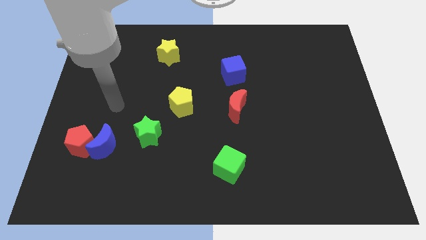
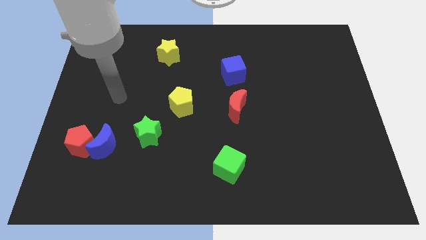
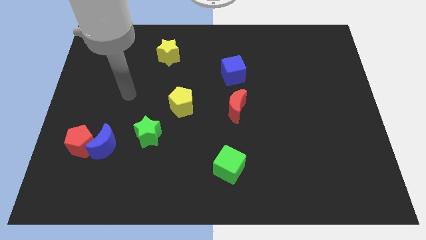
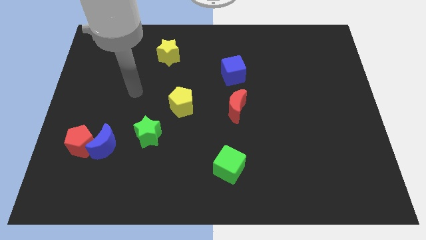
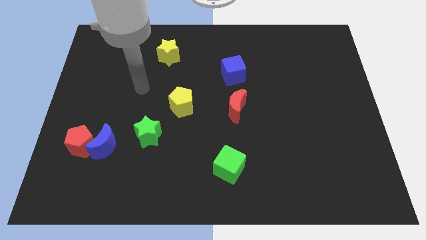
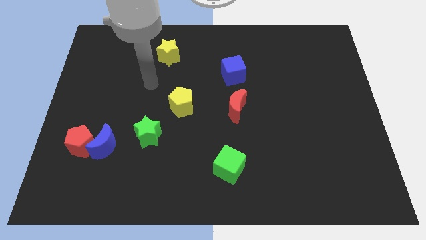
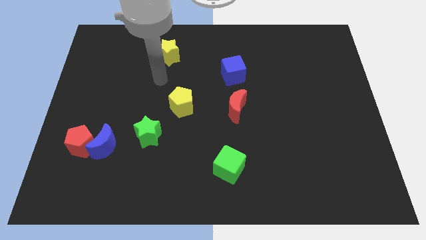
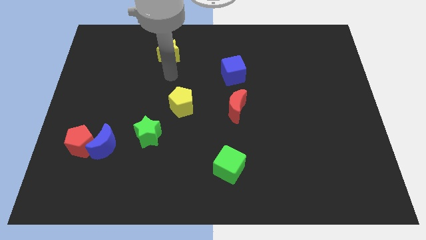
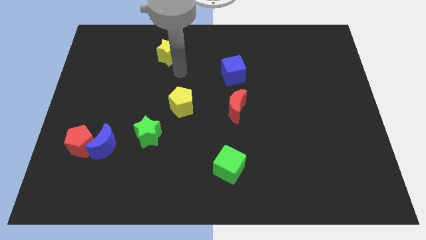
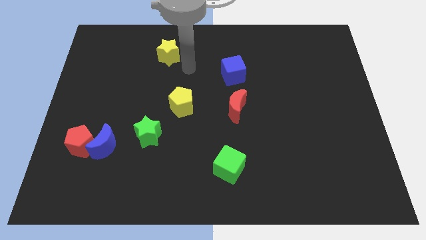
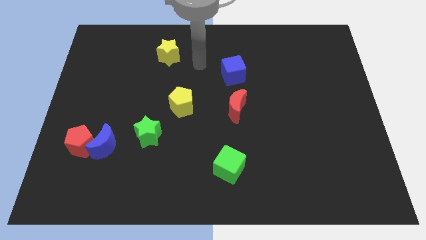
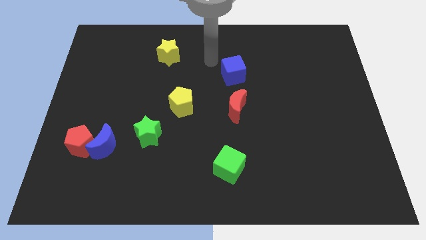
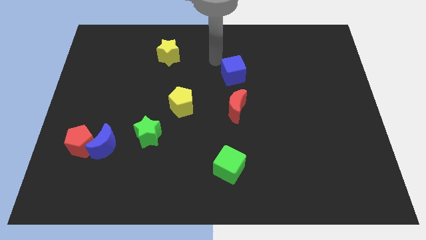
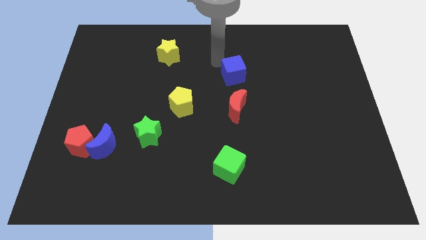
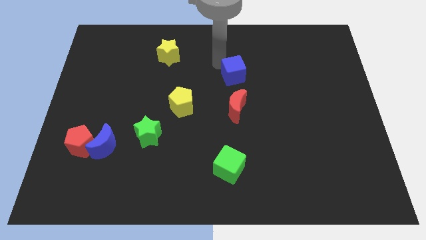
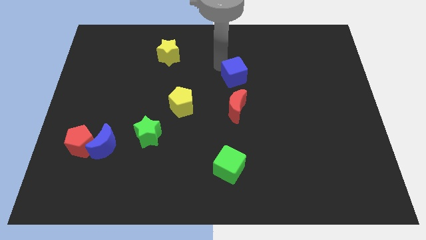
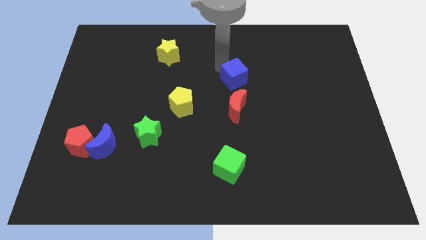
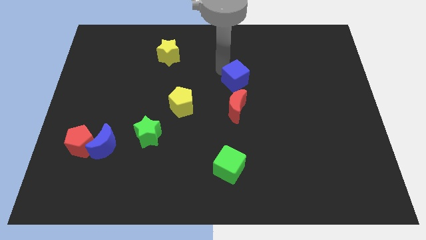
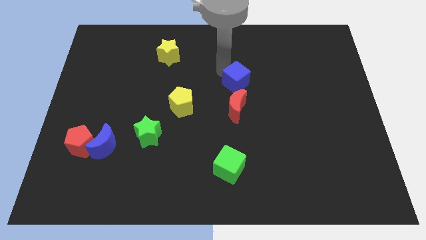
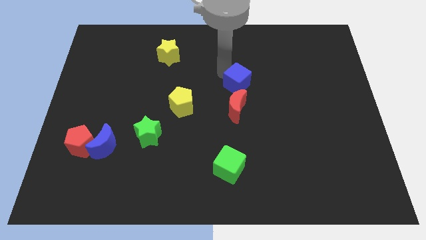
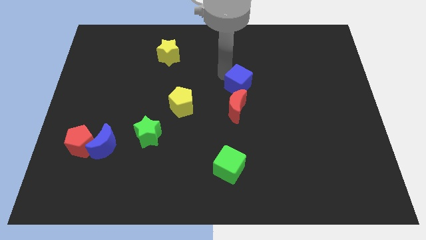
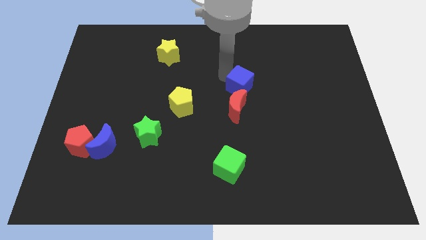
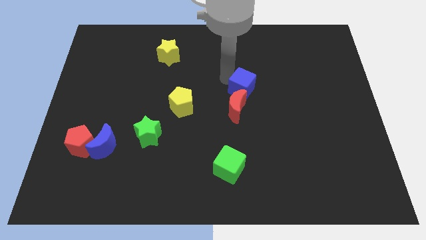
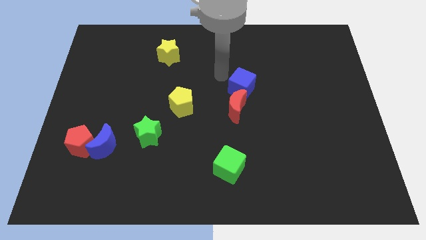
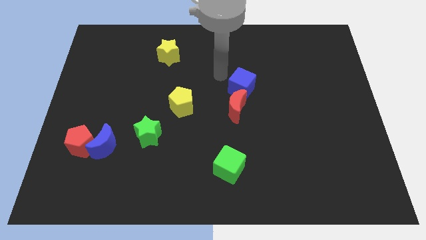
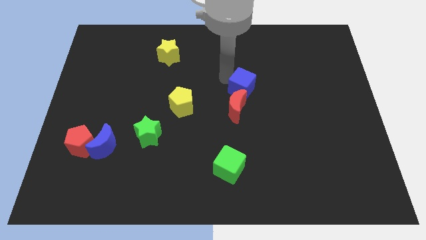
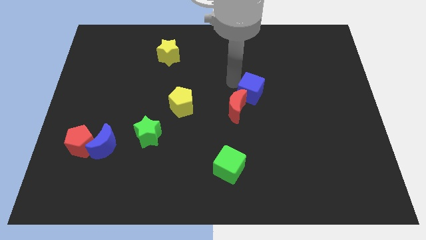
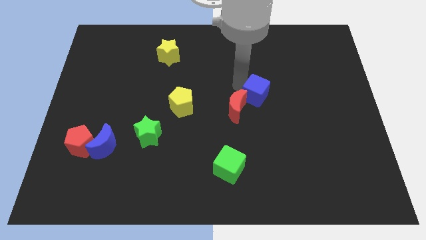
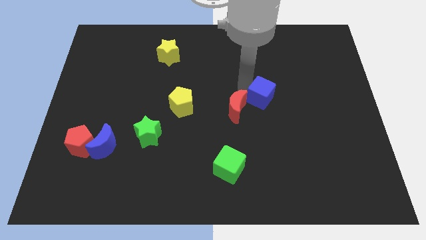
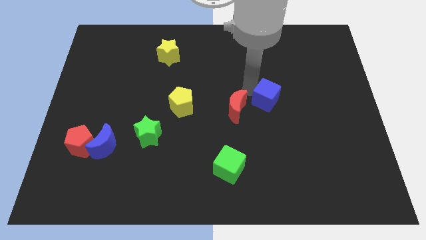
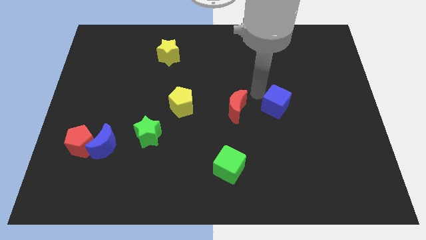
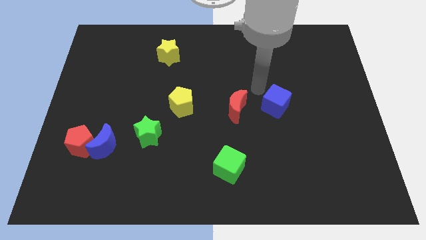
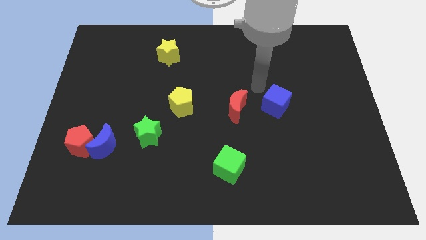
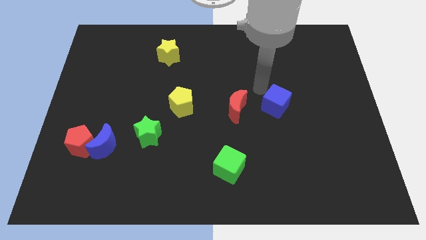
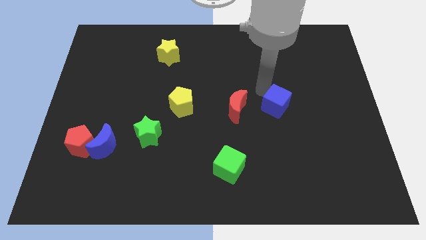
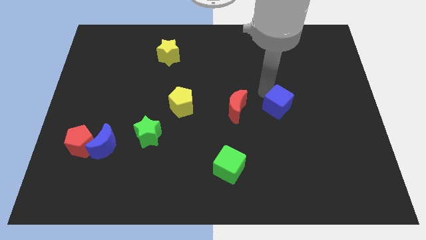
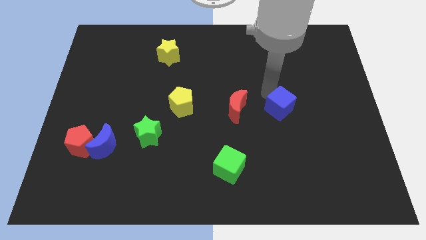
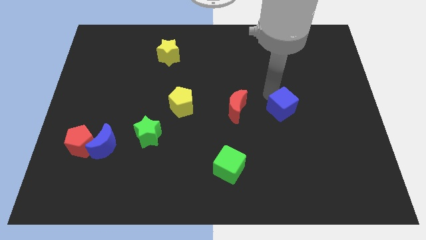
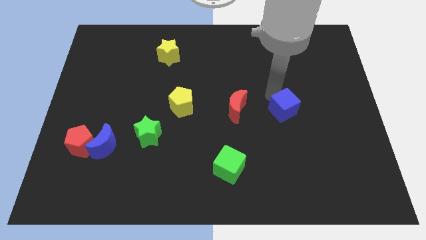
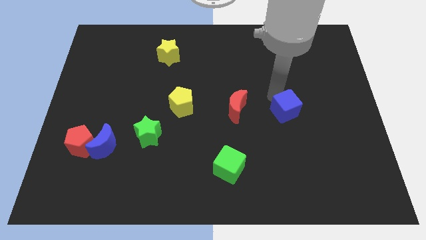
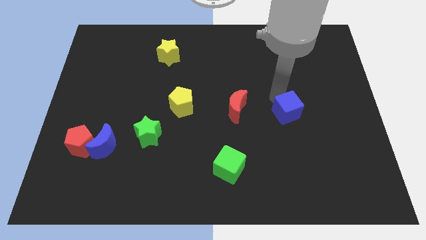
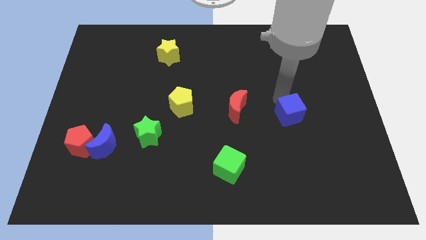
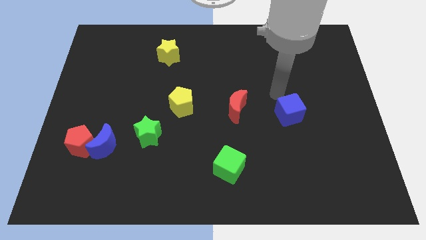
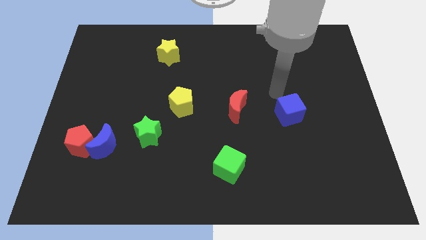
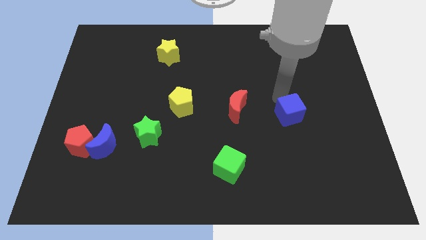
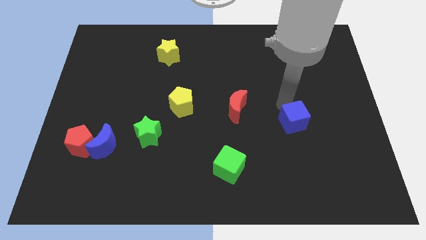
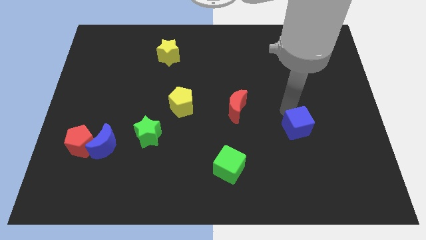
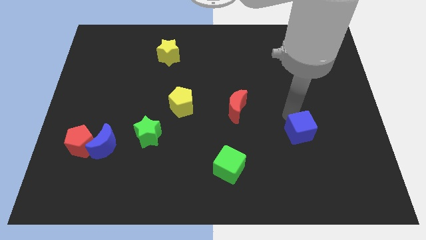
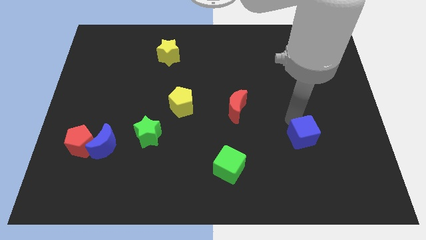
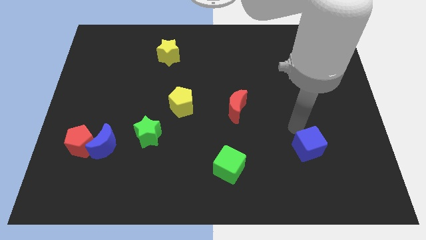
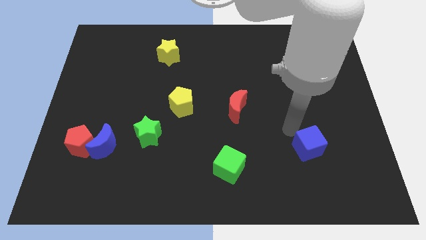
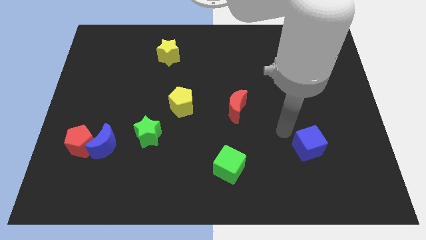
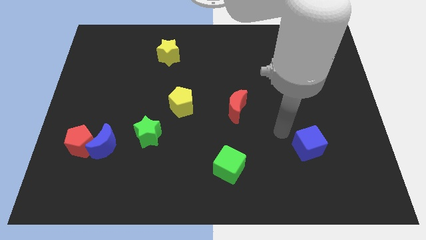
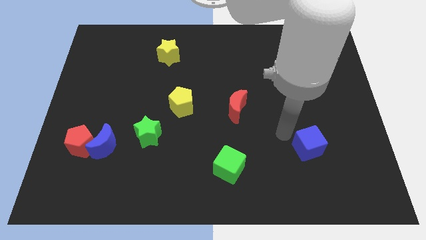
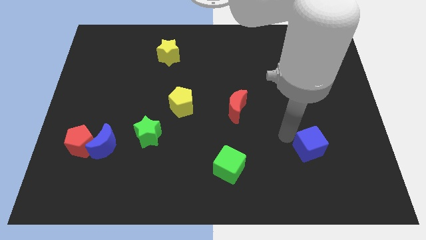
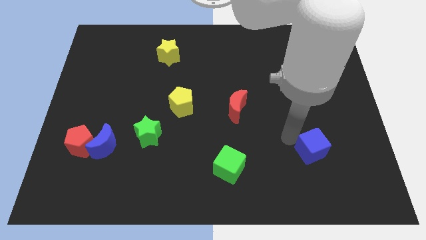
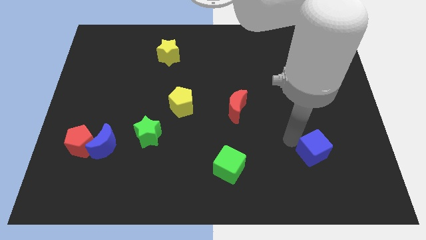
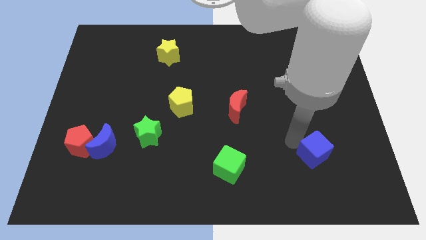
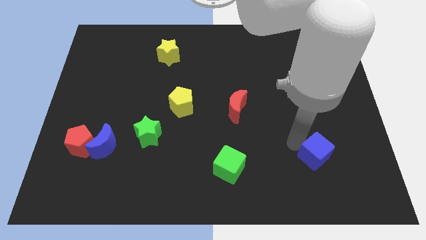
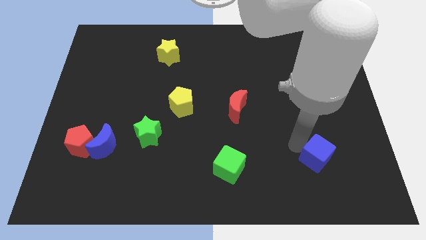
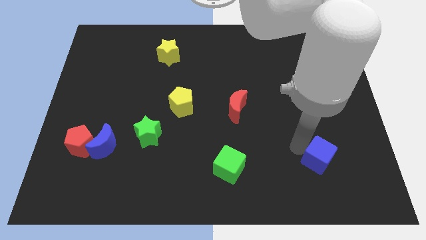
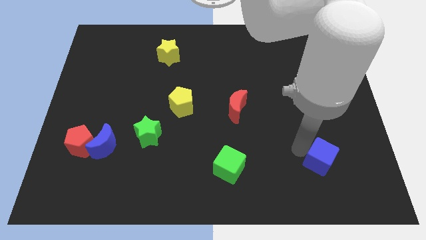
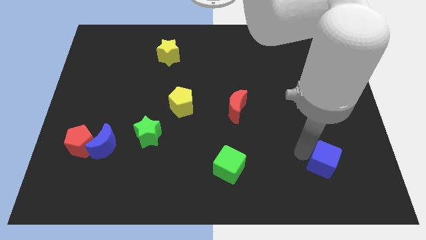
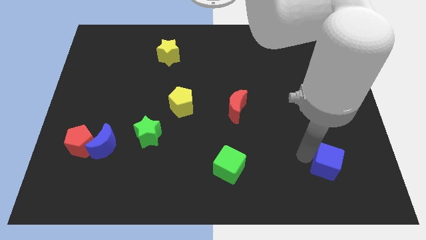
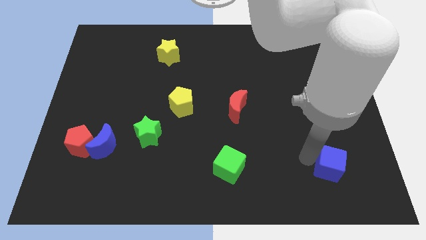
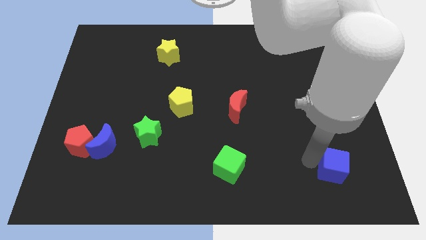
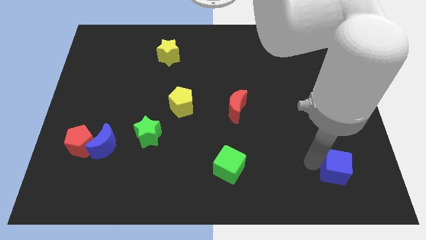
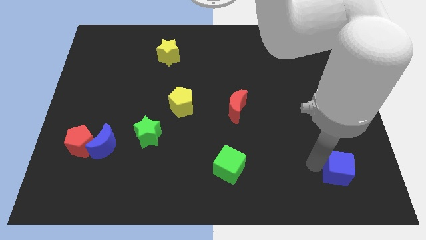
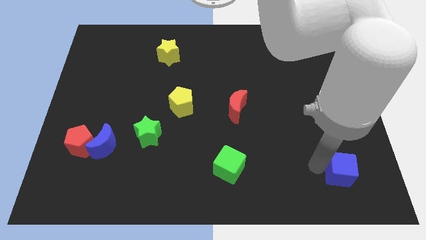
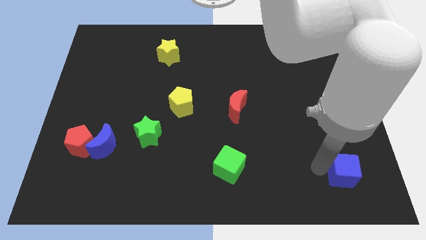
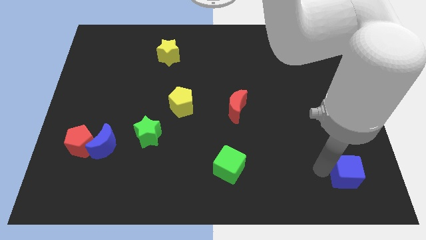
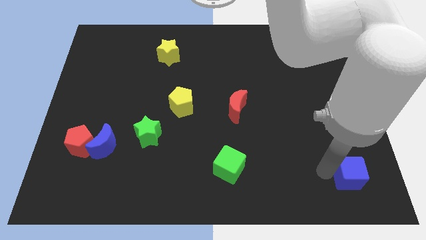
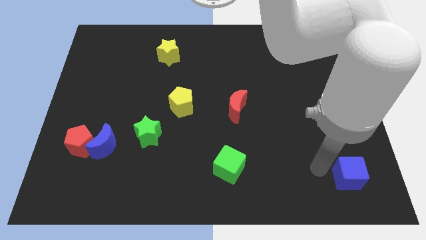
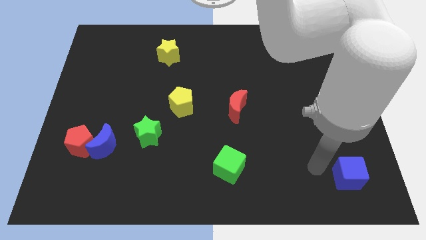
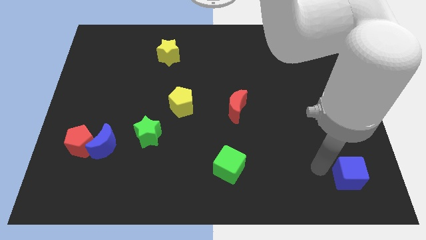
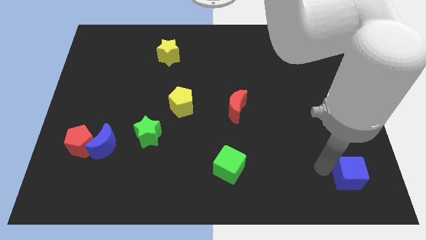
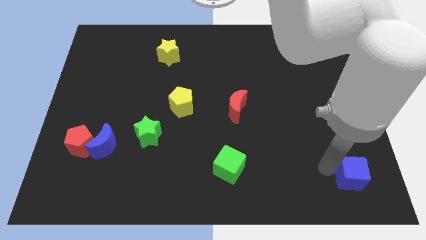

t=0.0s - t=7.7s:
move the blue cube to the bottom right
